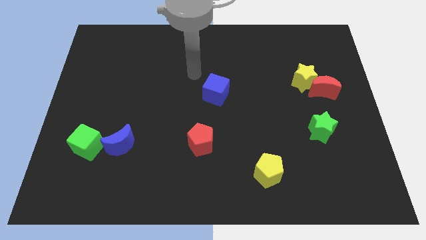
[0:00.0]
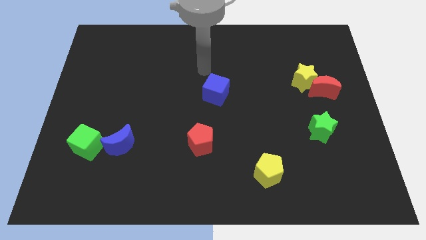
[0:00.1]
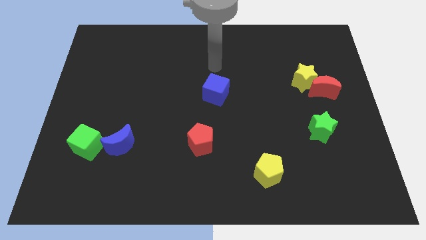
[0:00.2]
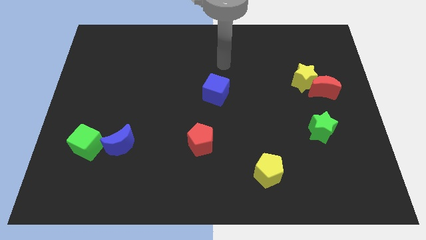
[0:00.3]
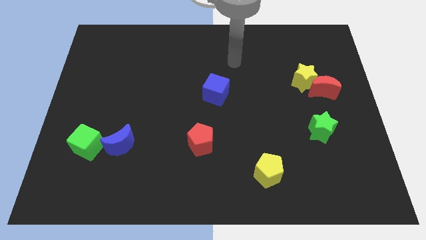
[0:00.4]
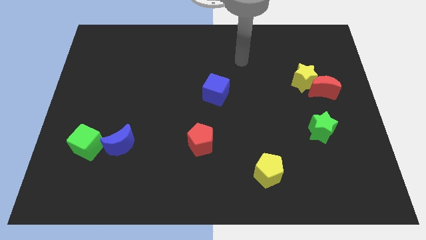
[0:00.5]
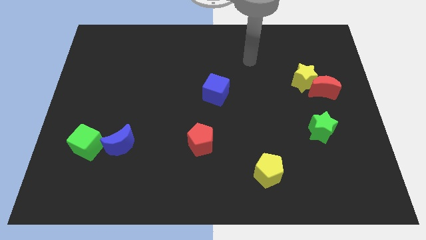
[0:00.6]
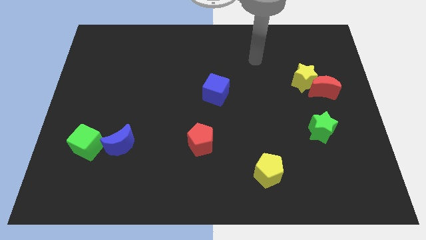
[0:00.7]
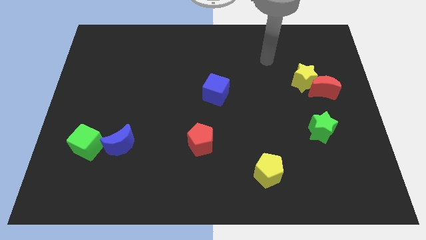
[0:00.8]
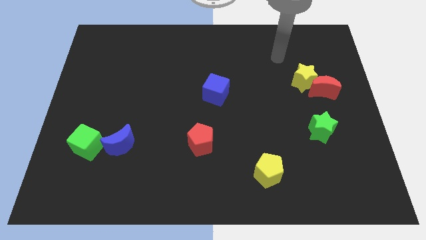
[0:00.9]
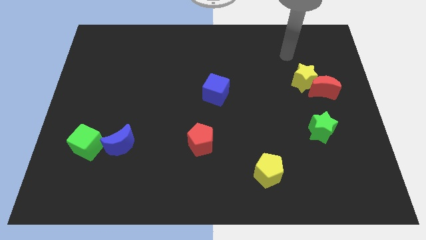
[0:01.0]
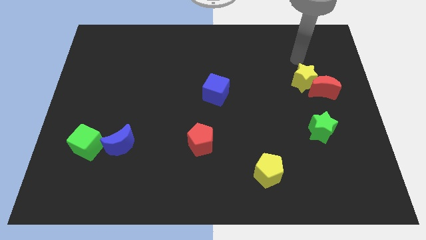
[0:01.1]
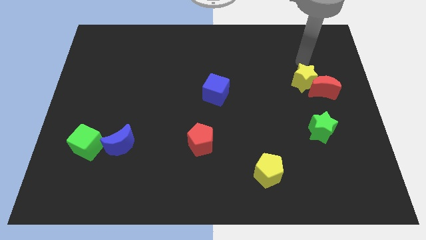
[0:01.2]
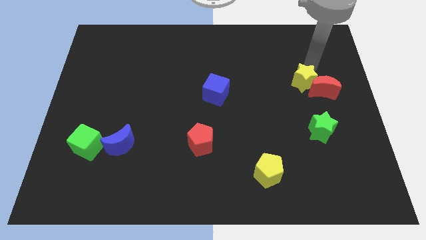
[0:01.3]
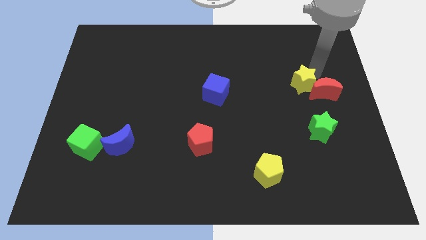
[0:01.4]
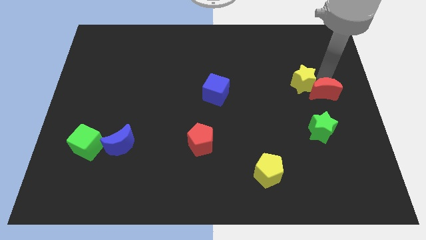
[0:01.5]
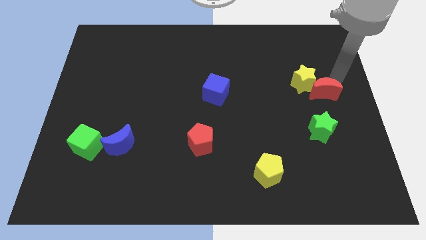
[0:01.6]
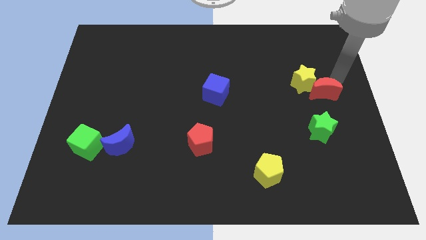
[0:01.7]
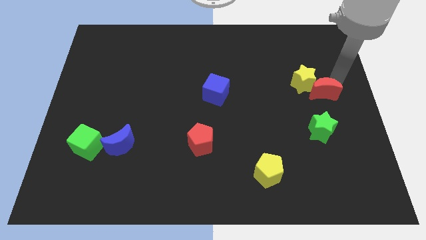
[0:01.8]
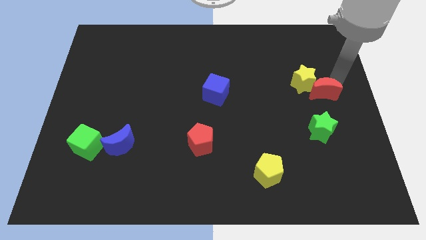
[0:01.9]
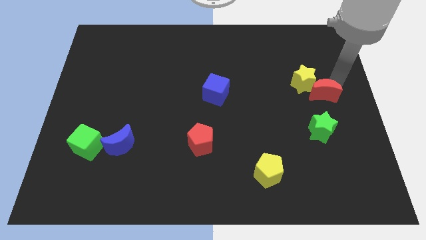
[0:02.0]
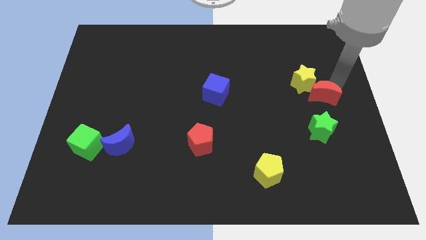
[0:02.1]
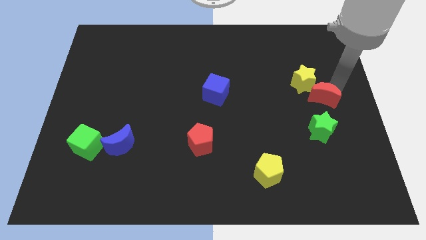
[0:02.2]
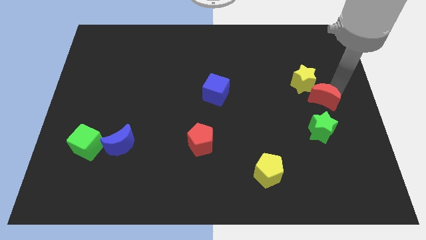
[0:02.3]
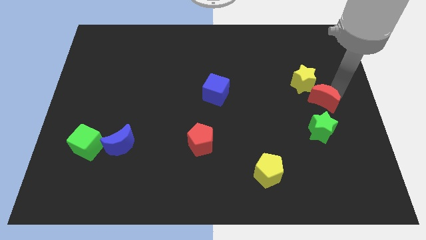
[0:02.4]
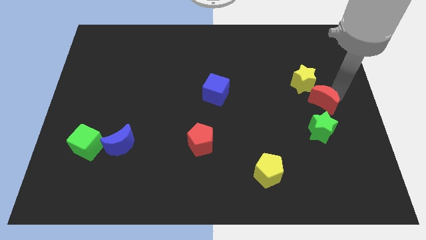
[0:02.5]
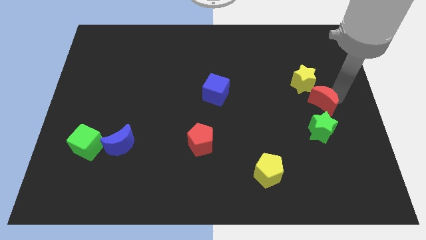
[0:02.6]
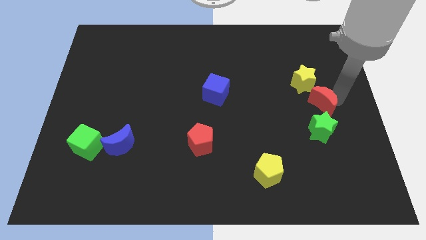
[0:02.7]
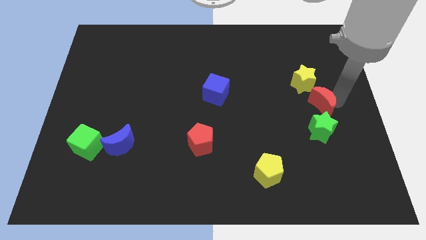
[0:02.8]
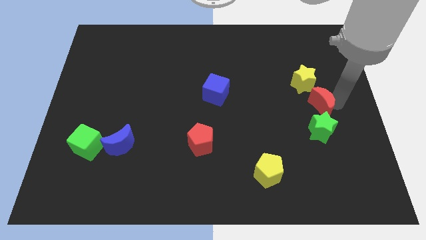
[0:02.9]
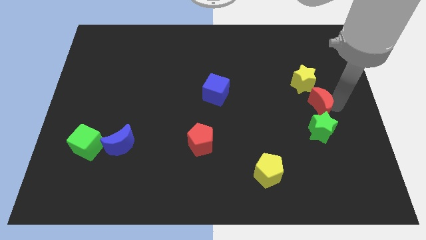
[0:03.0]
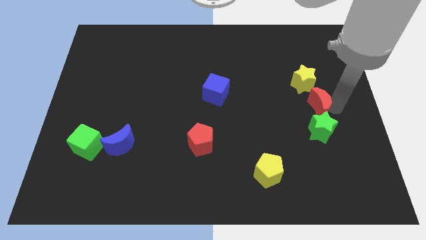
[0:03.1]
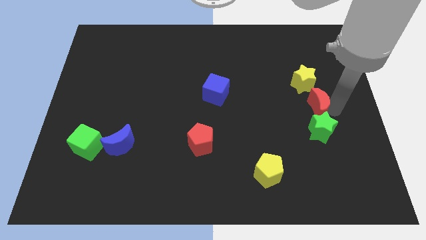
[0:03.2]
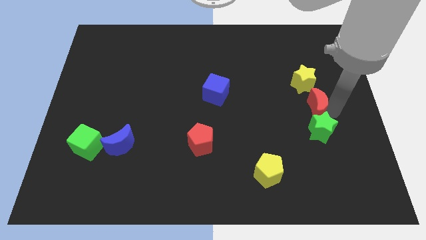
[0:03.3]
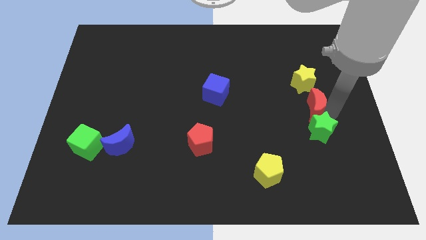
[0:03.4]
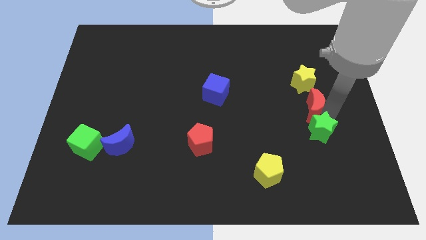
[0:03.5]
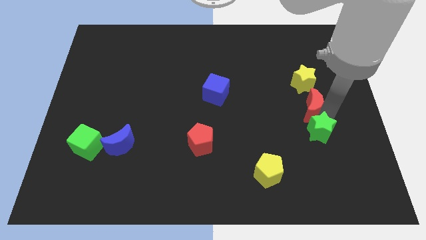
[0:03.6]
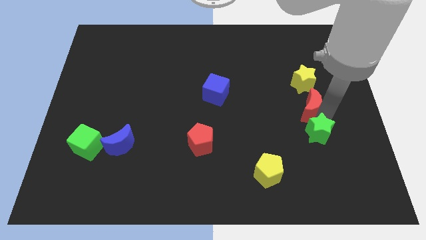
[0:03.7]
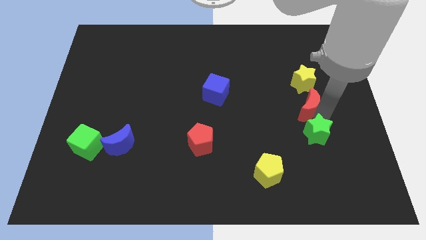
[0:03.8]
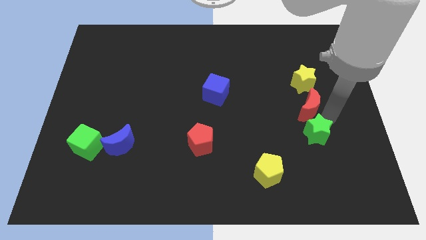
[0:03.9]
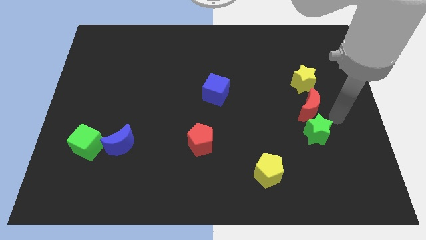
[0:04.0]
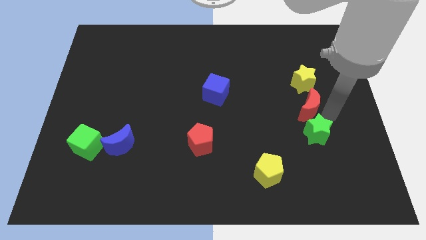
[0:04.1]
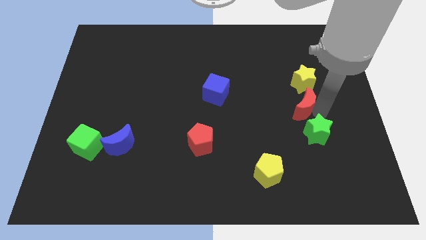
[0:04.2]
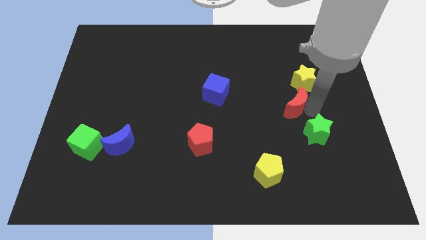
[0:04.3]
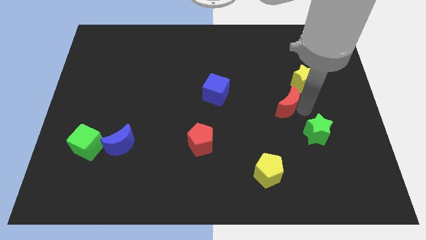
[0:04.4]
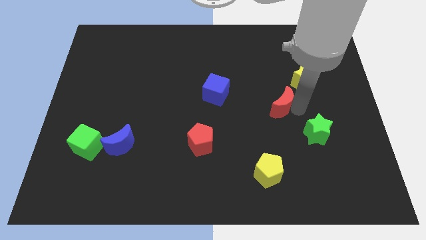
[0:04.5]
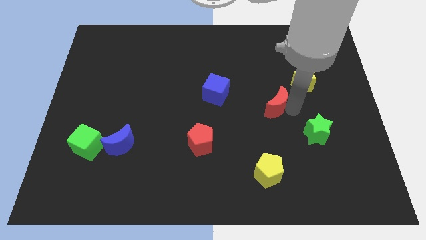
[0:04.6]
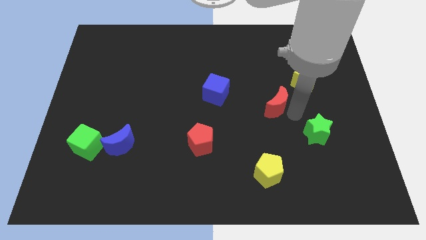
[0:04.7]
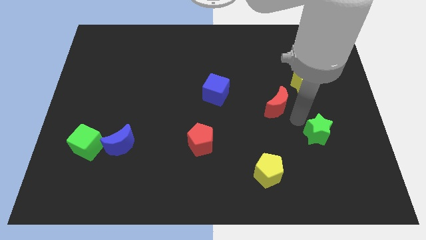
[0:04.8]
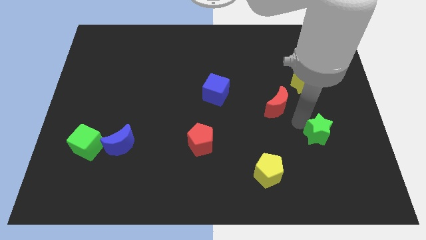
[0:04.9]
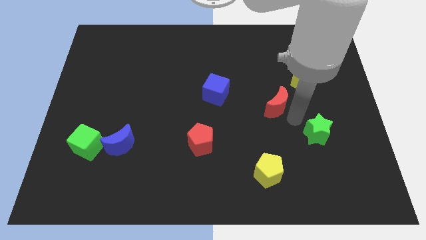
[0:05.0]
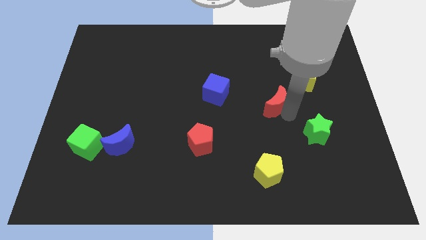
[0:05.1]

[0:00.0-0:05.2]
move the red moon to the right of the blue cube

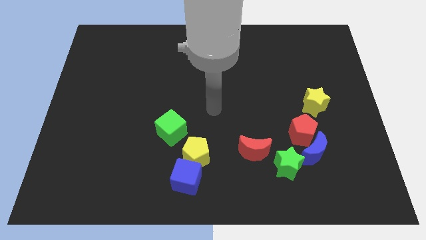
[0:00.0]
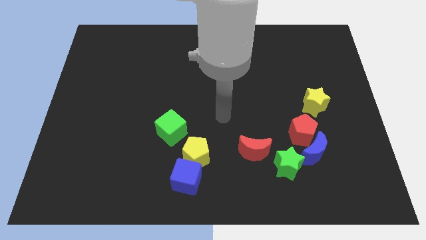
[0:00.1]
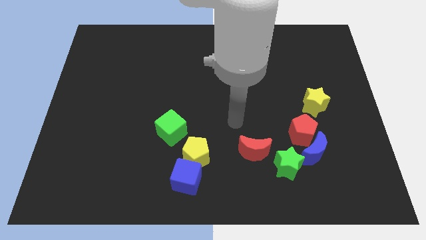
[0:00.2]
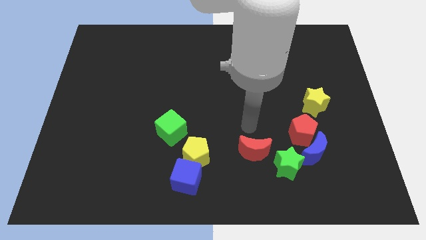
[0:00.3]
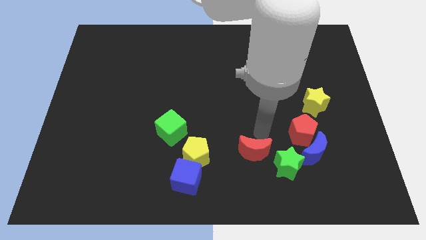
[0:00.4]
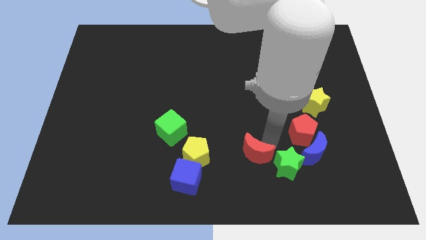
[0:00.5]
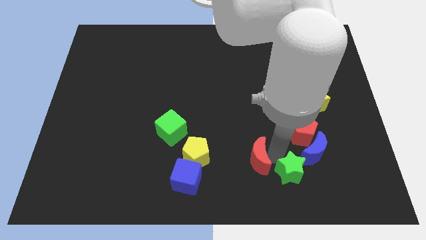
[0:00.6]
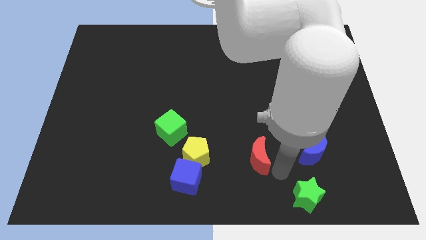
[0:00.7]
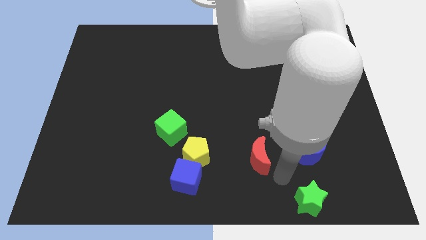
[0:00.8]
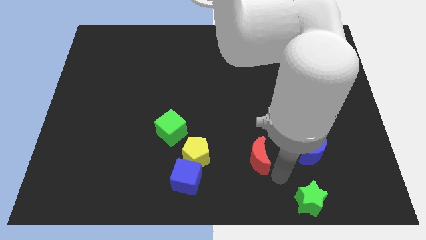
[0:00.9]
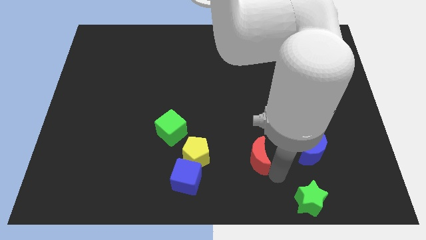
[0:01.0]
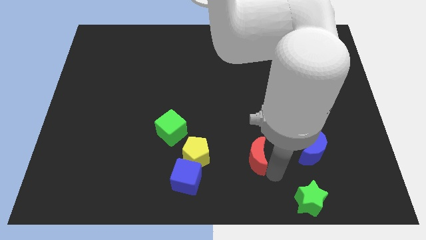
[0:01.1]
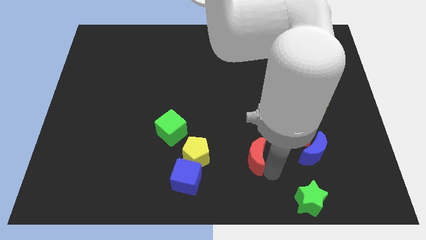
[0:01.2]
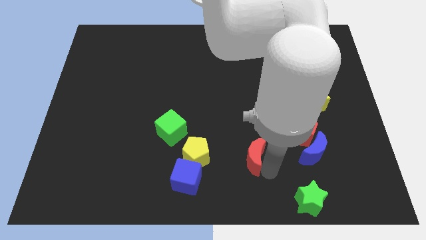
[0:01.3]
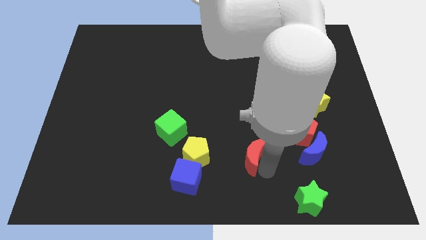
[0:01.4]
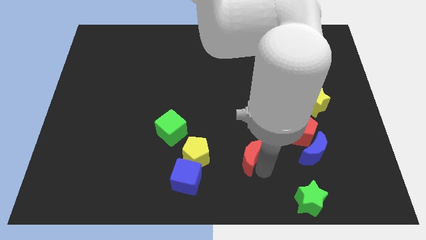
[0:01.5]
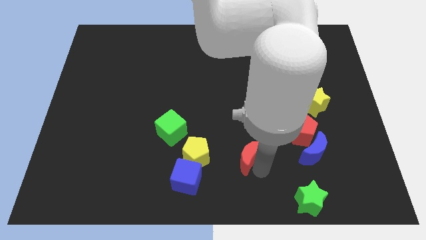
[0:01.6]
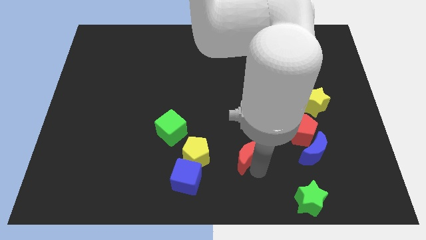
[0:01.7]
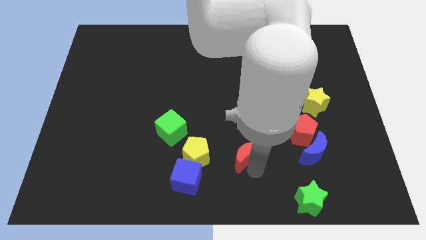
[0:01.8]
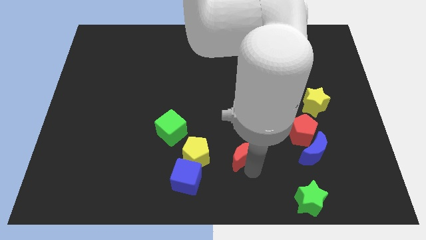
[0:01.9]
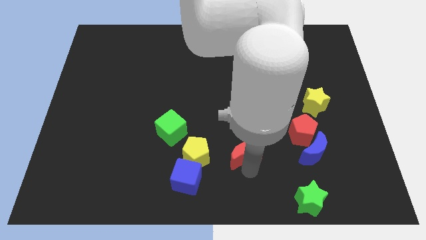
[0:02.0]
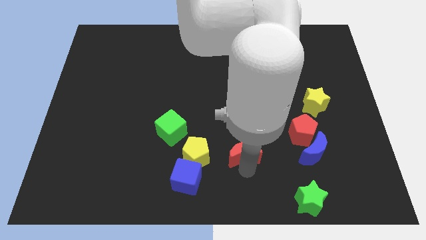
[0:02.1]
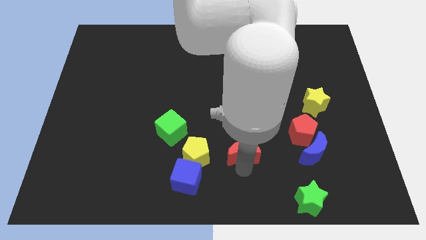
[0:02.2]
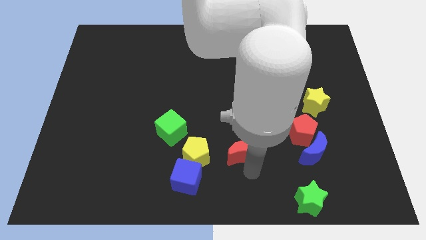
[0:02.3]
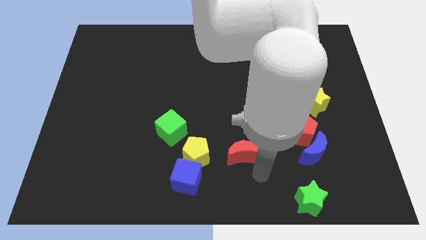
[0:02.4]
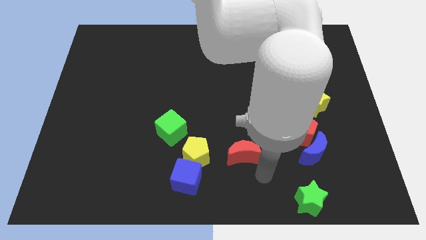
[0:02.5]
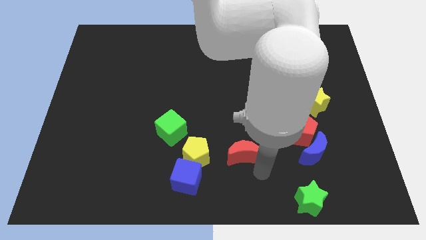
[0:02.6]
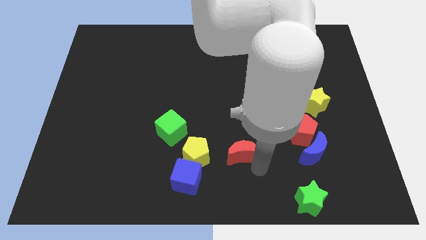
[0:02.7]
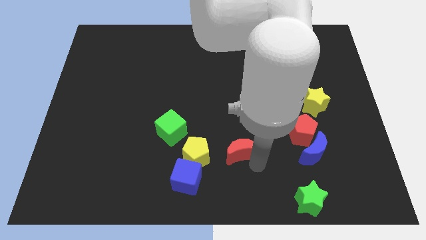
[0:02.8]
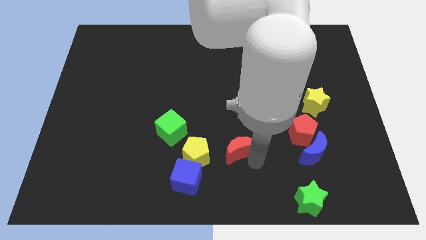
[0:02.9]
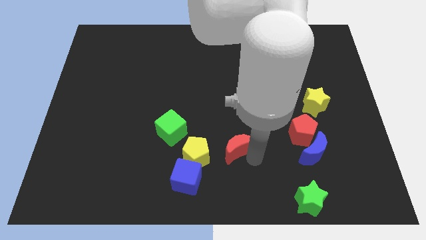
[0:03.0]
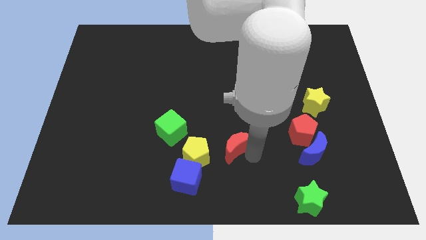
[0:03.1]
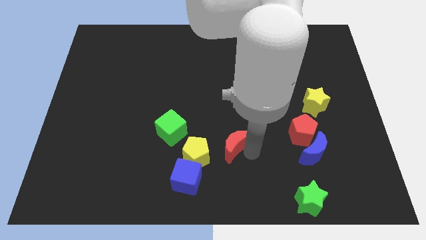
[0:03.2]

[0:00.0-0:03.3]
move the red moon right of the green cube
